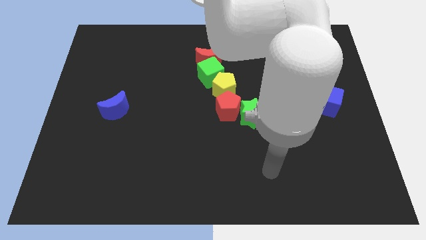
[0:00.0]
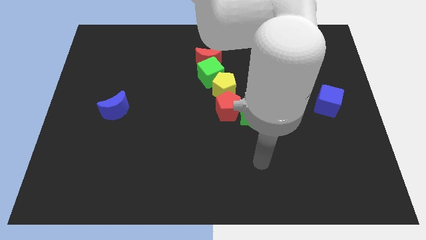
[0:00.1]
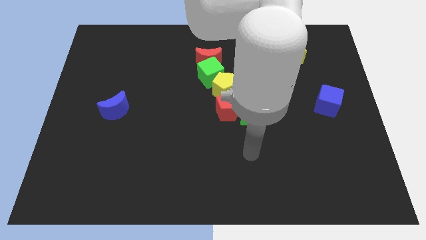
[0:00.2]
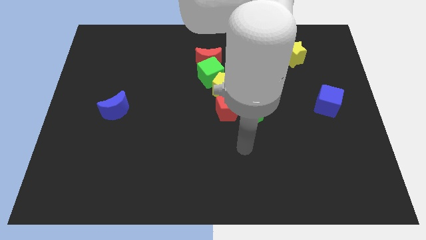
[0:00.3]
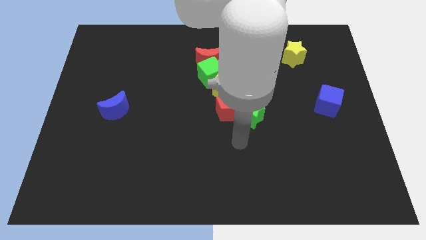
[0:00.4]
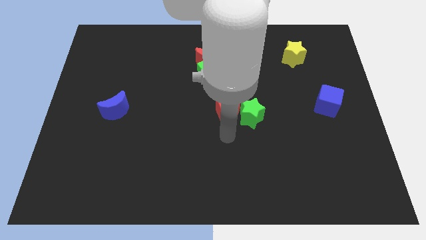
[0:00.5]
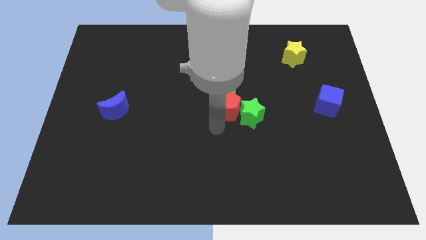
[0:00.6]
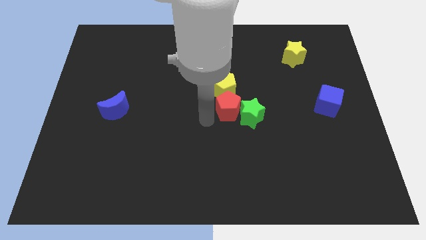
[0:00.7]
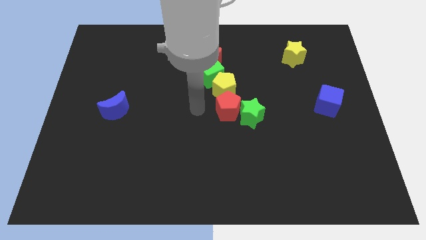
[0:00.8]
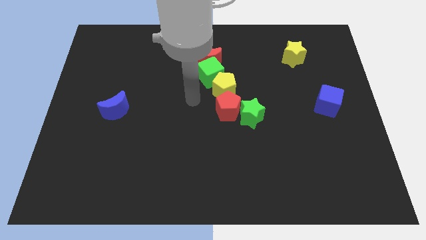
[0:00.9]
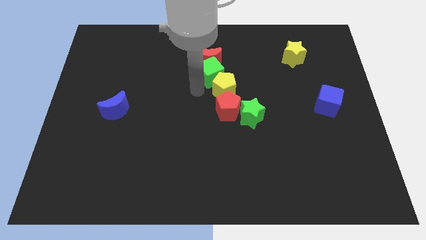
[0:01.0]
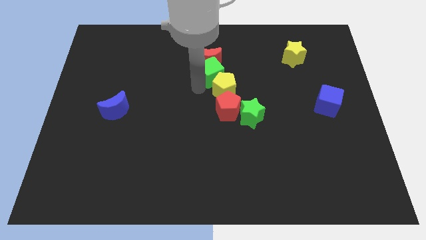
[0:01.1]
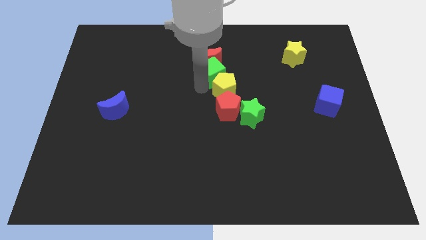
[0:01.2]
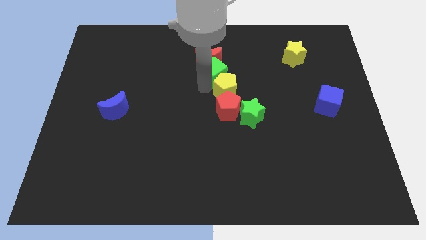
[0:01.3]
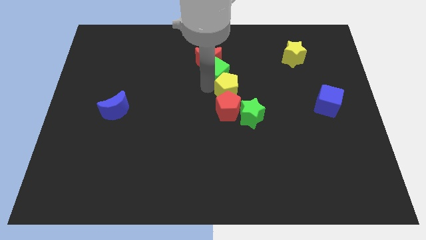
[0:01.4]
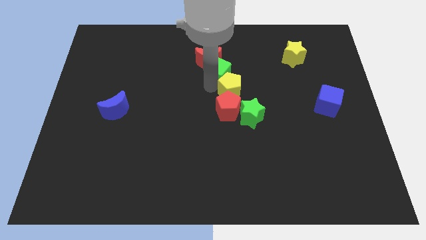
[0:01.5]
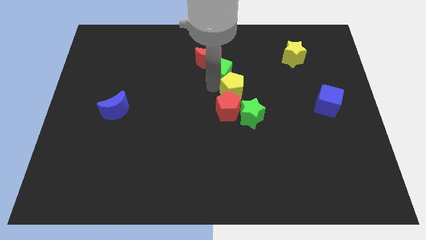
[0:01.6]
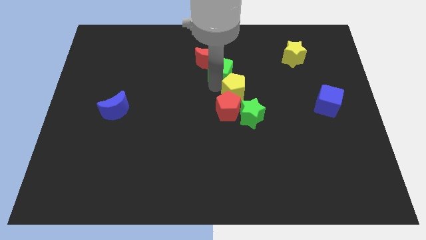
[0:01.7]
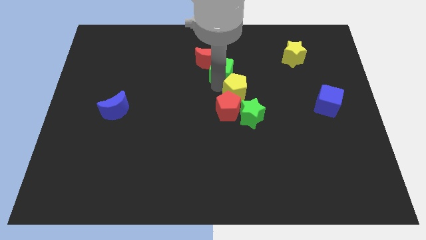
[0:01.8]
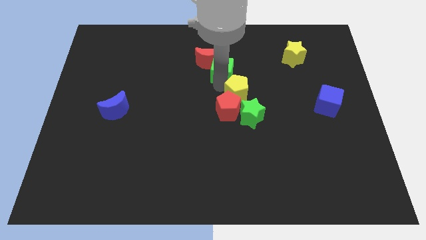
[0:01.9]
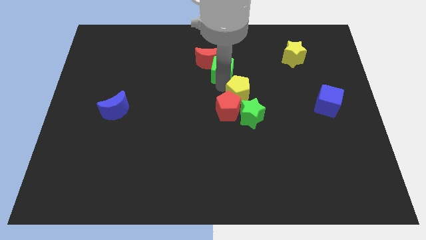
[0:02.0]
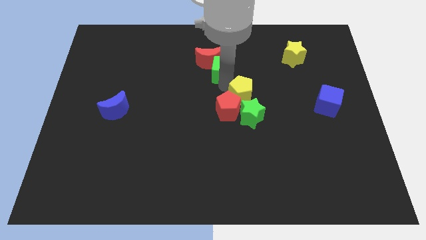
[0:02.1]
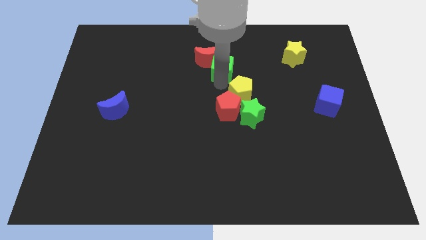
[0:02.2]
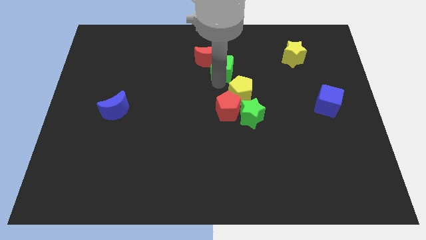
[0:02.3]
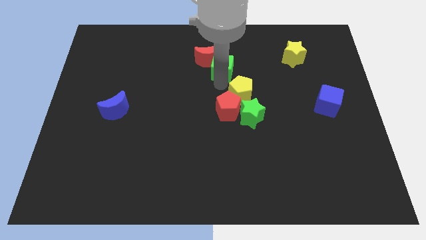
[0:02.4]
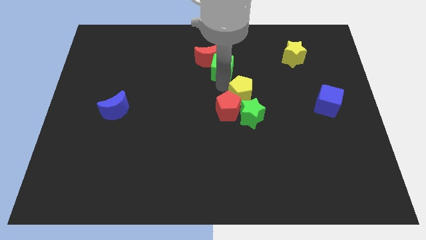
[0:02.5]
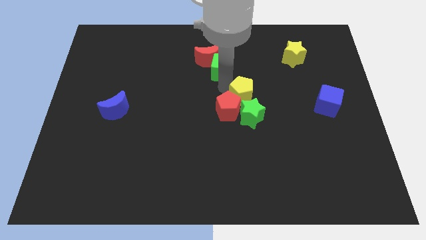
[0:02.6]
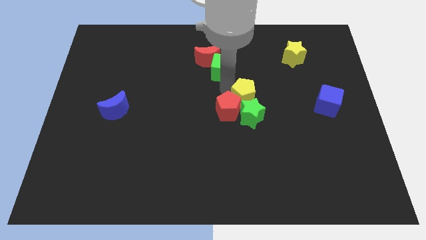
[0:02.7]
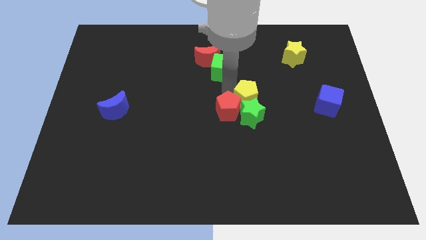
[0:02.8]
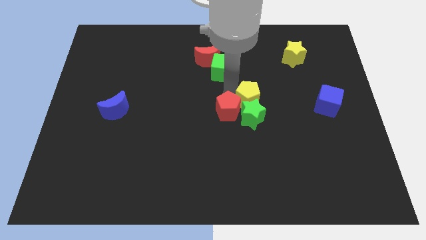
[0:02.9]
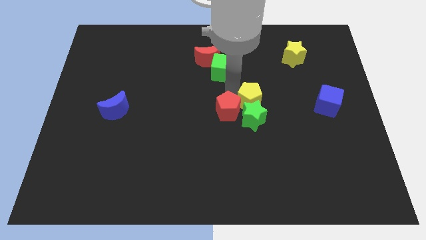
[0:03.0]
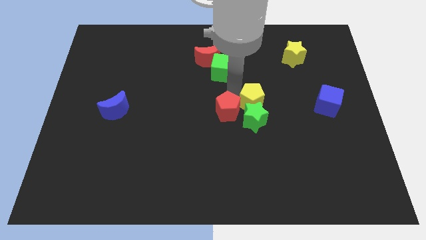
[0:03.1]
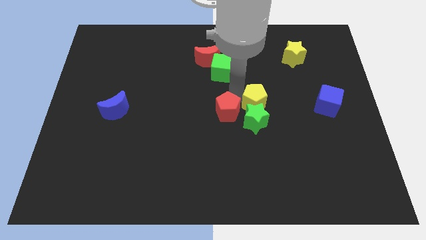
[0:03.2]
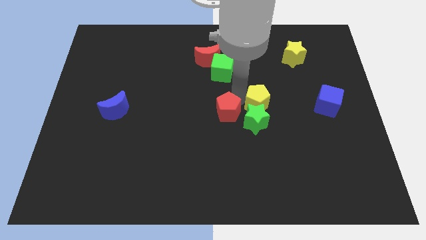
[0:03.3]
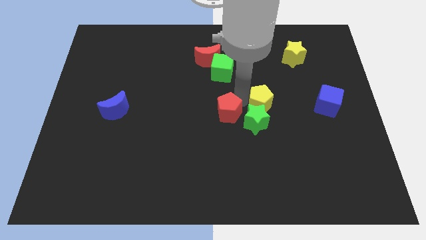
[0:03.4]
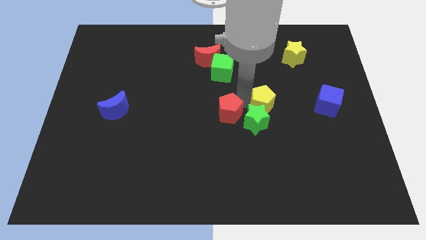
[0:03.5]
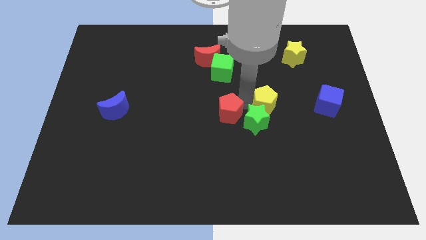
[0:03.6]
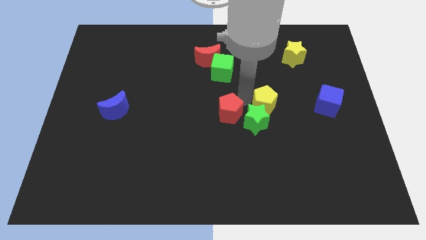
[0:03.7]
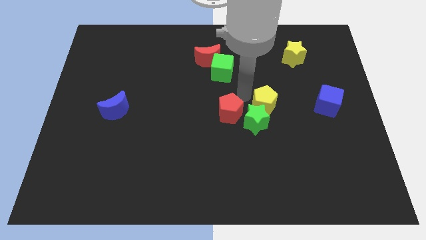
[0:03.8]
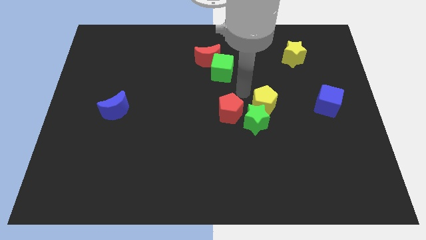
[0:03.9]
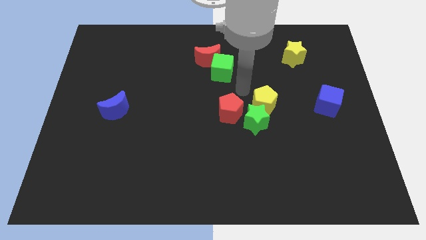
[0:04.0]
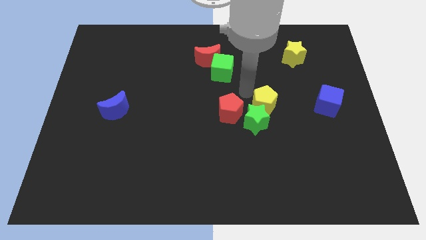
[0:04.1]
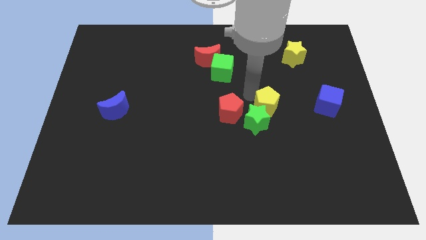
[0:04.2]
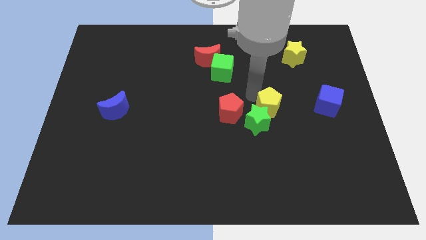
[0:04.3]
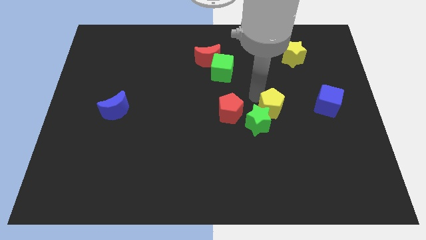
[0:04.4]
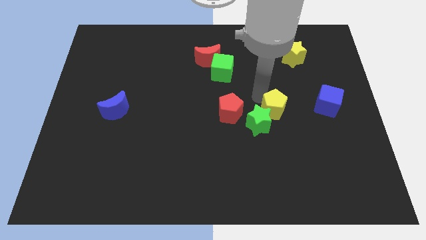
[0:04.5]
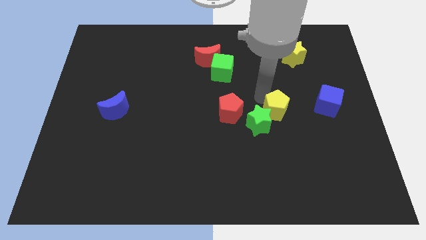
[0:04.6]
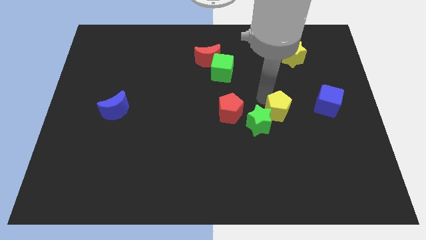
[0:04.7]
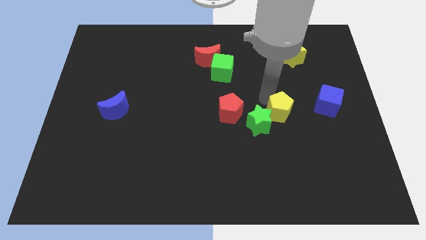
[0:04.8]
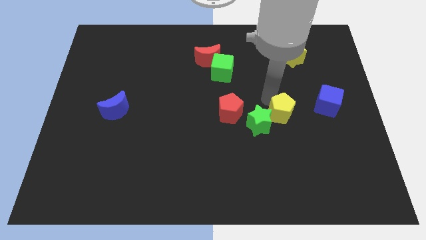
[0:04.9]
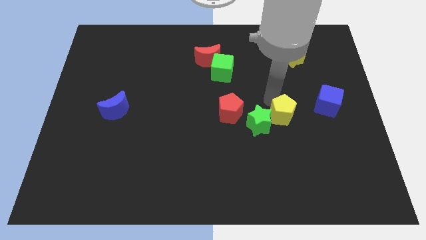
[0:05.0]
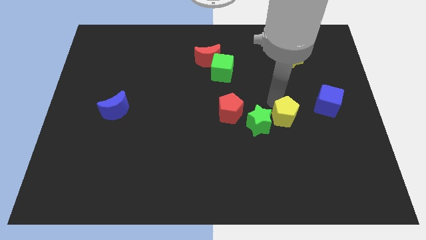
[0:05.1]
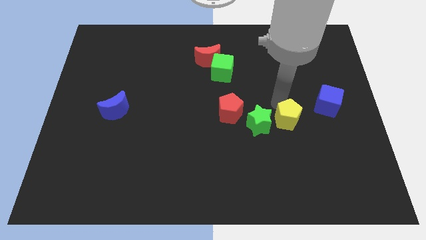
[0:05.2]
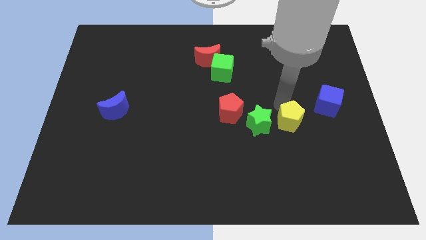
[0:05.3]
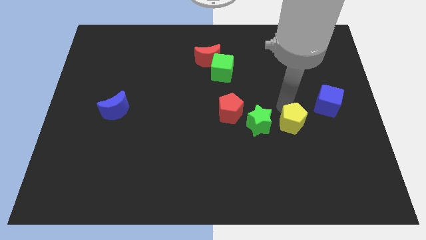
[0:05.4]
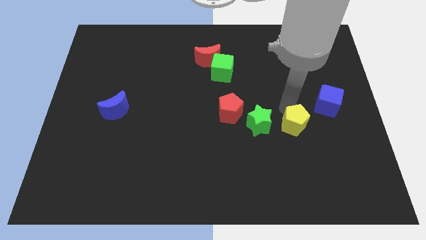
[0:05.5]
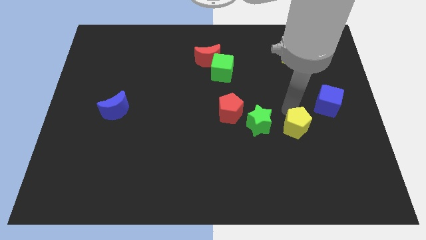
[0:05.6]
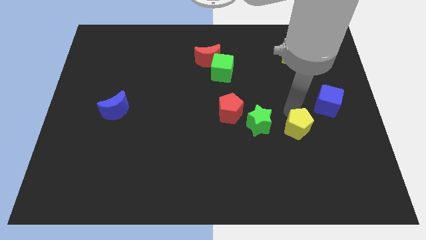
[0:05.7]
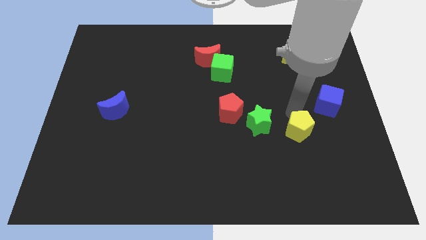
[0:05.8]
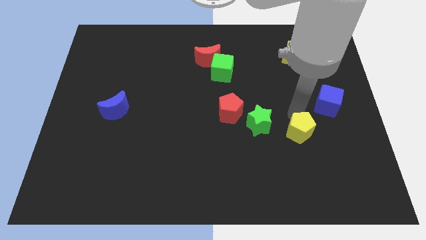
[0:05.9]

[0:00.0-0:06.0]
move the yellow pentagon downwards and right

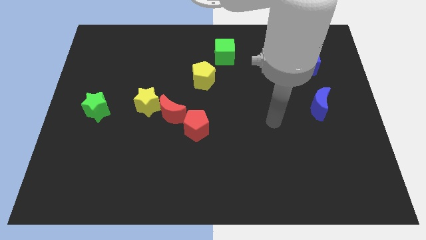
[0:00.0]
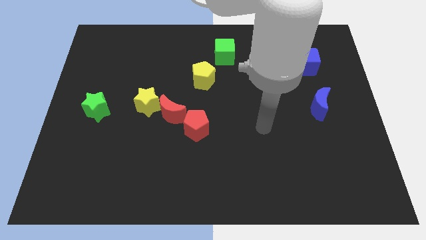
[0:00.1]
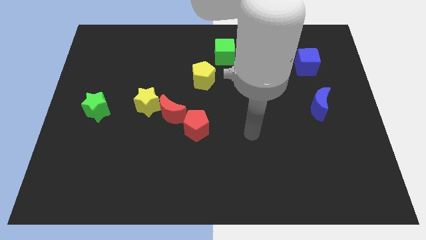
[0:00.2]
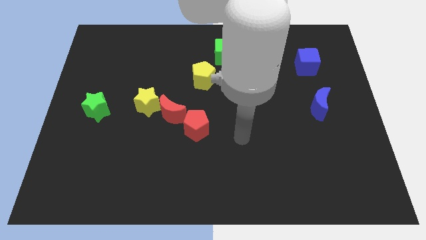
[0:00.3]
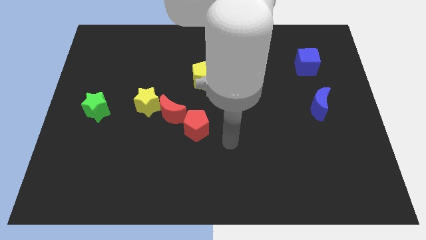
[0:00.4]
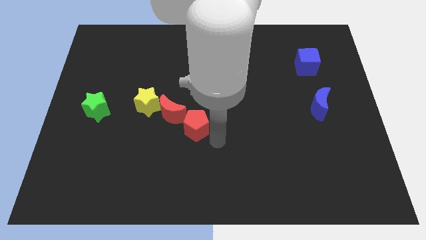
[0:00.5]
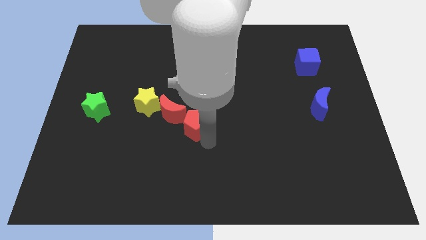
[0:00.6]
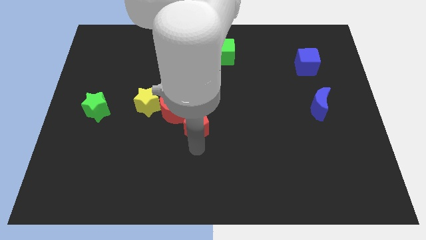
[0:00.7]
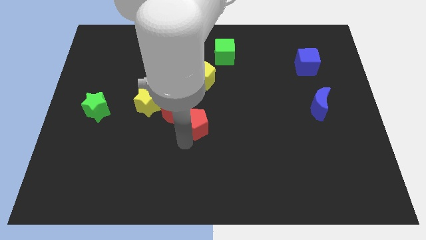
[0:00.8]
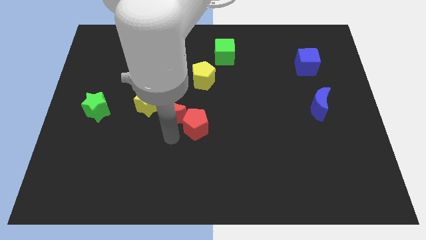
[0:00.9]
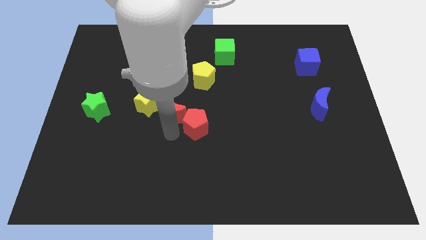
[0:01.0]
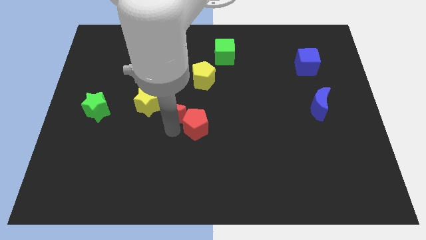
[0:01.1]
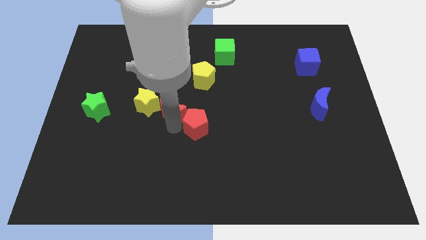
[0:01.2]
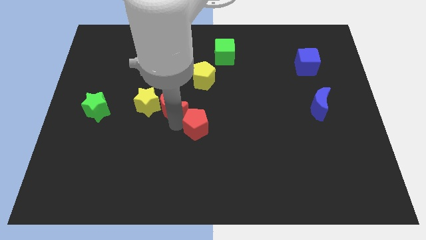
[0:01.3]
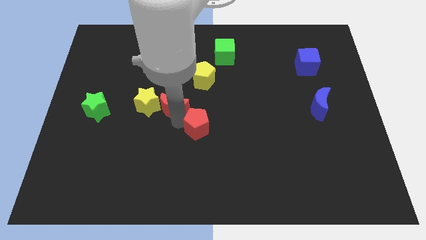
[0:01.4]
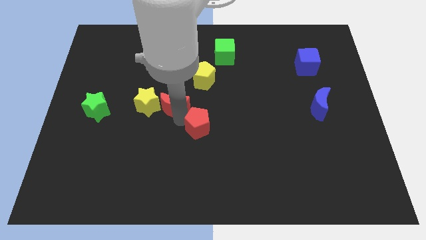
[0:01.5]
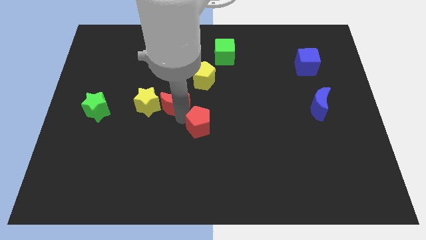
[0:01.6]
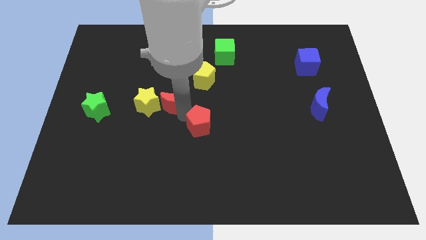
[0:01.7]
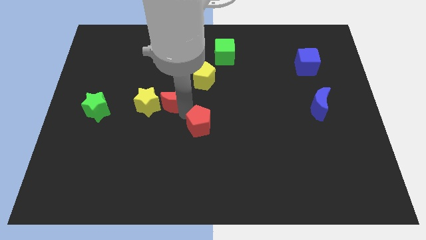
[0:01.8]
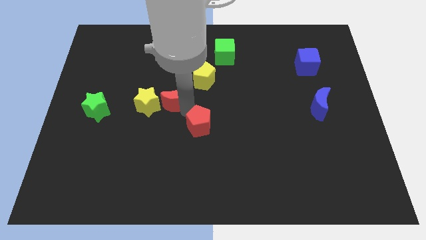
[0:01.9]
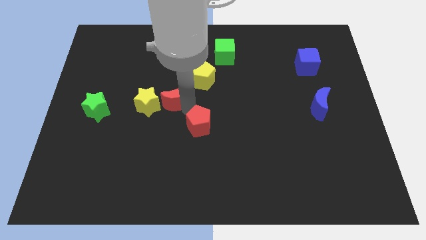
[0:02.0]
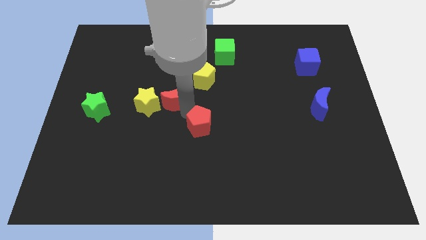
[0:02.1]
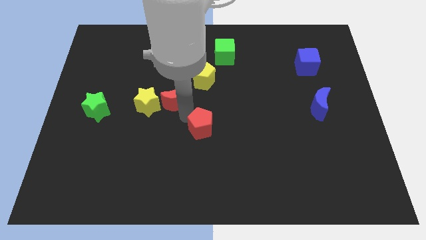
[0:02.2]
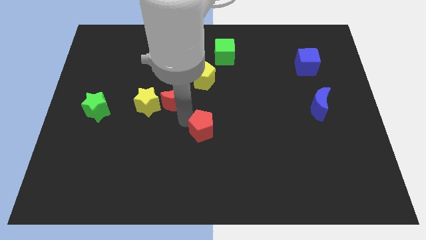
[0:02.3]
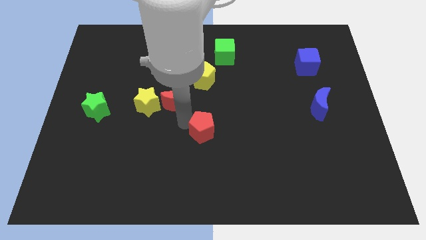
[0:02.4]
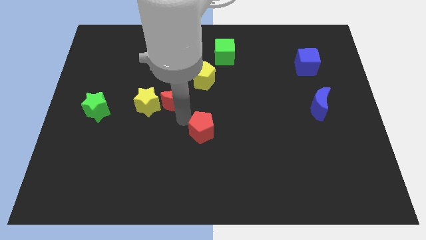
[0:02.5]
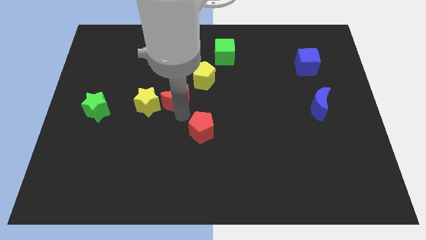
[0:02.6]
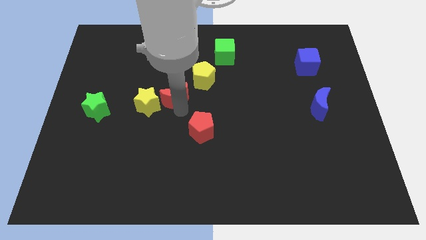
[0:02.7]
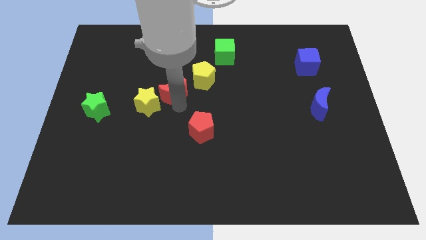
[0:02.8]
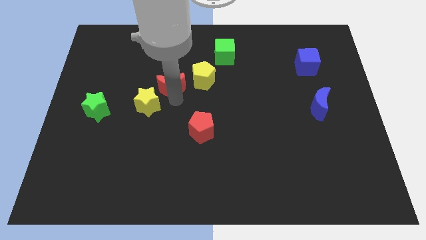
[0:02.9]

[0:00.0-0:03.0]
slightly push the red moon up
